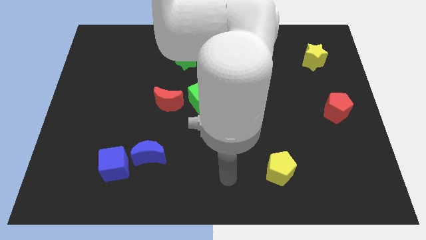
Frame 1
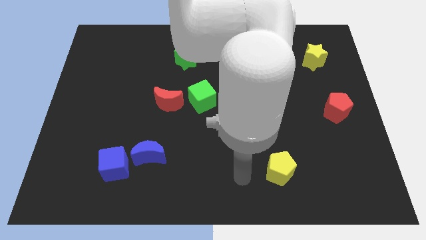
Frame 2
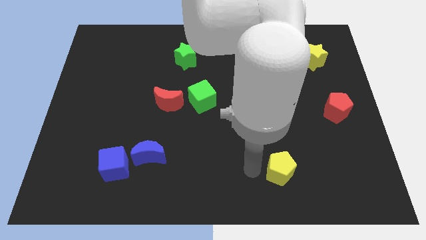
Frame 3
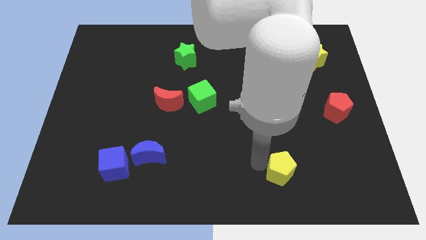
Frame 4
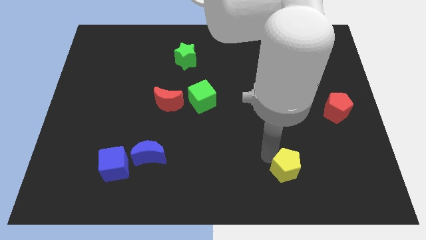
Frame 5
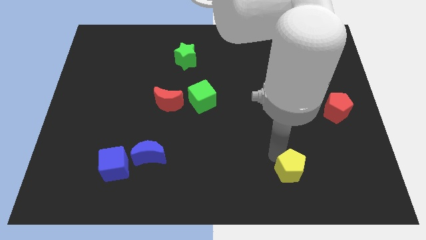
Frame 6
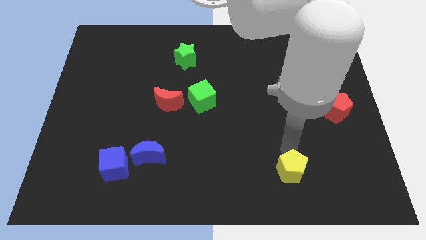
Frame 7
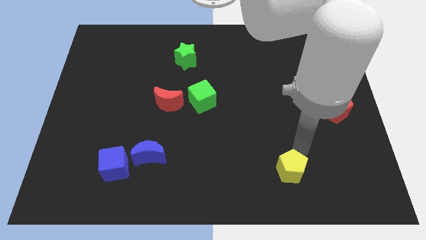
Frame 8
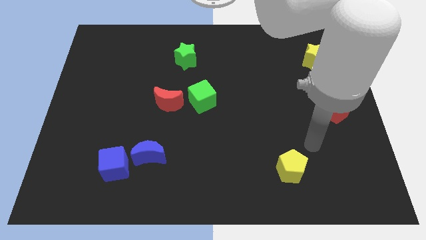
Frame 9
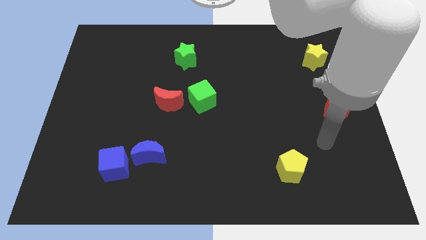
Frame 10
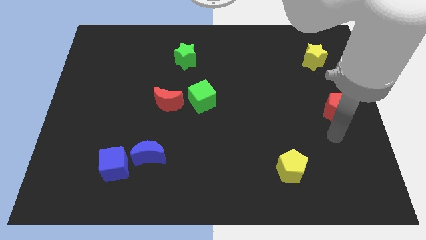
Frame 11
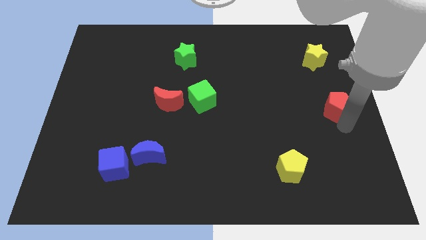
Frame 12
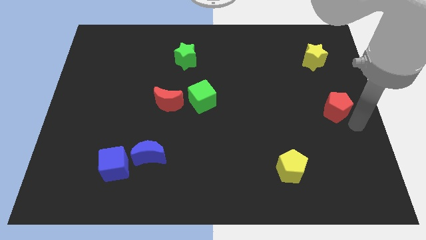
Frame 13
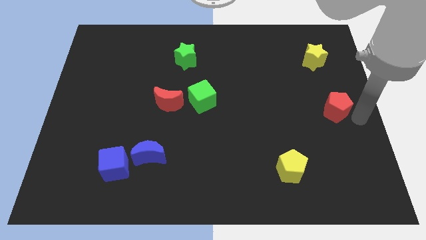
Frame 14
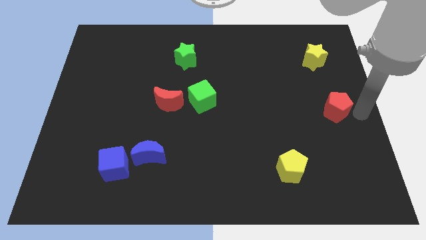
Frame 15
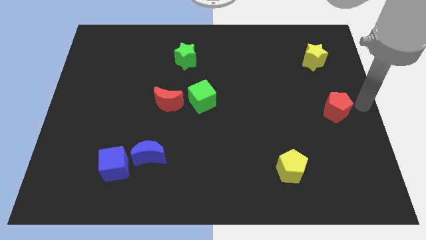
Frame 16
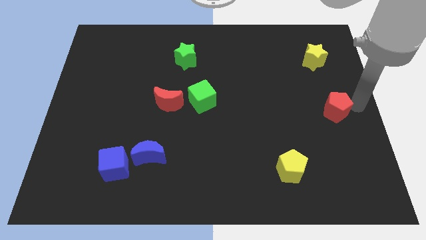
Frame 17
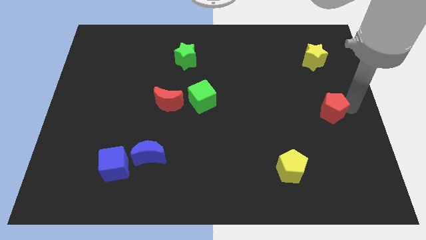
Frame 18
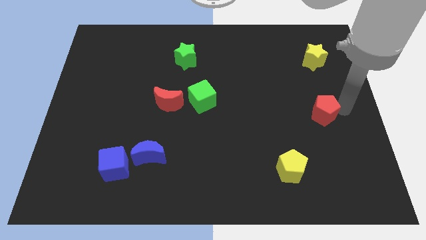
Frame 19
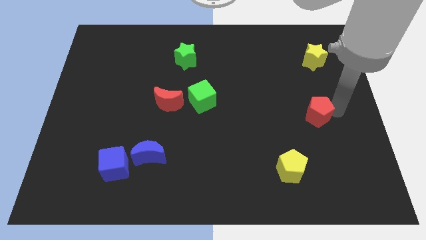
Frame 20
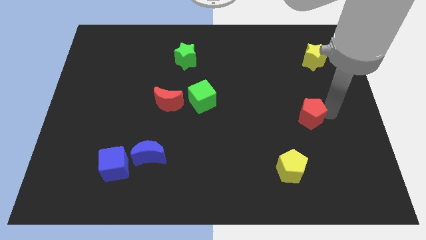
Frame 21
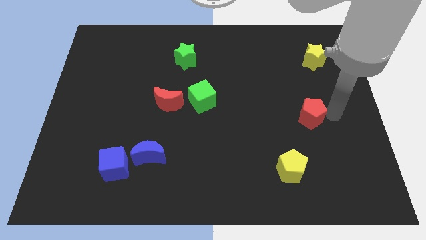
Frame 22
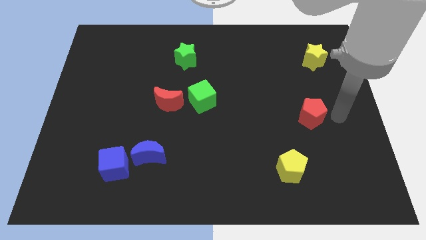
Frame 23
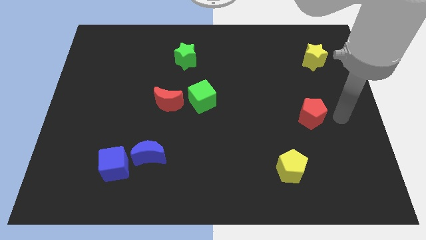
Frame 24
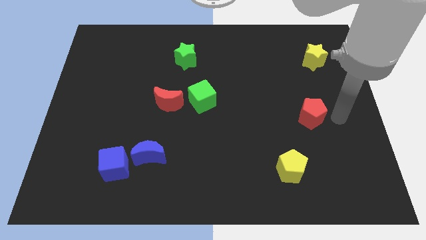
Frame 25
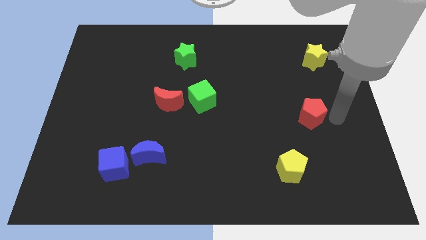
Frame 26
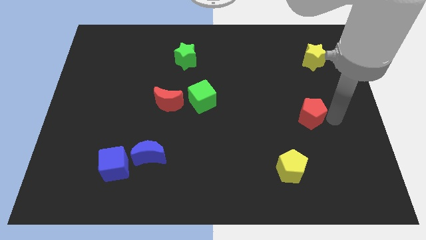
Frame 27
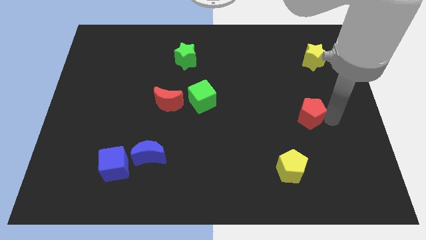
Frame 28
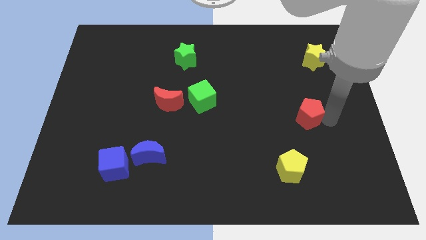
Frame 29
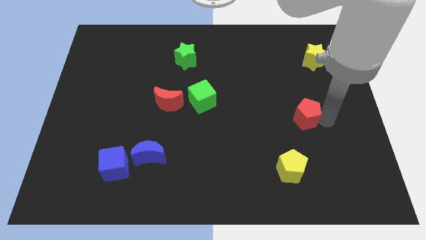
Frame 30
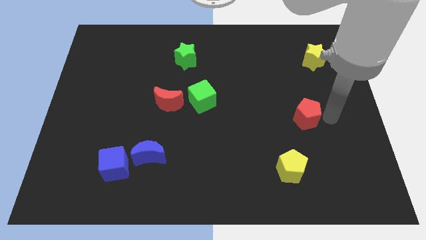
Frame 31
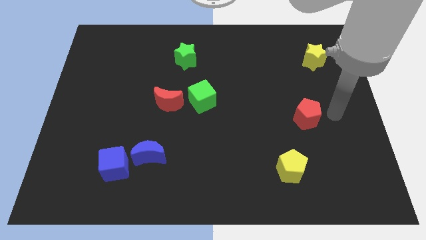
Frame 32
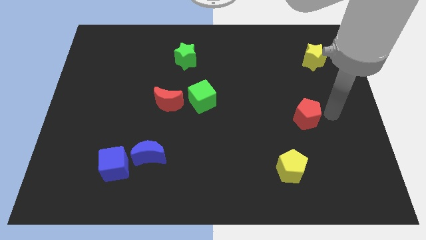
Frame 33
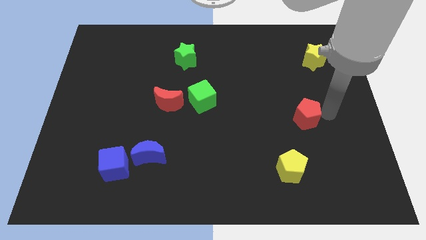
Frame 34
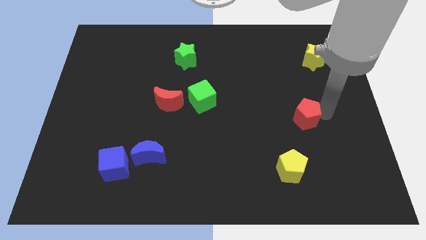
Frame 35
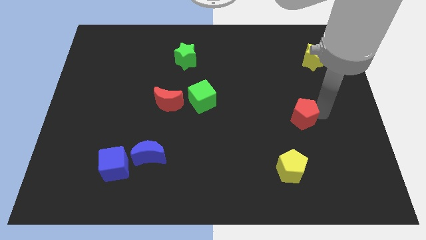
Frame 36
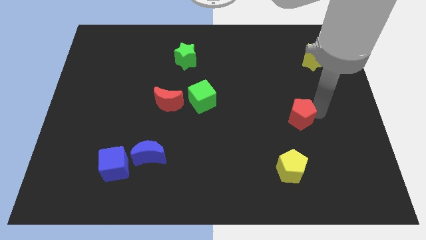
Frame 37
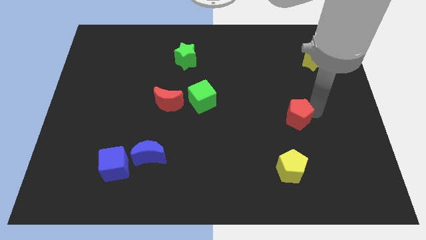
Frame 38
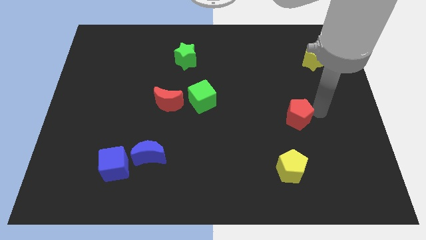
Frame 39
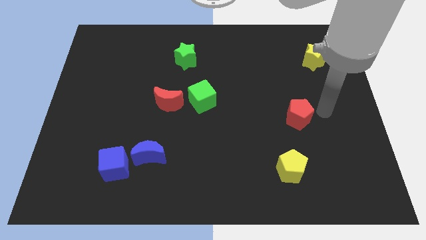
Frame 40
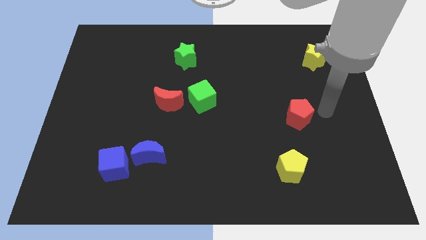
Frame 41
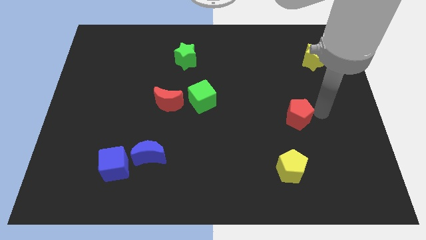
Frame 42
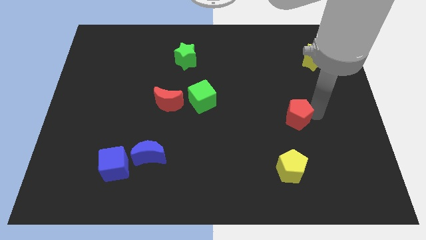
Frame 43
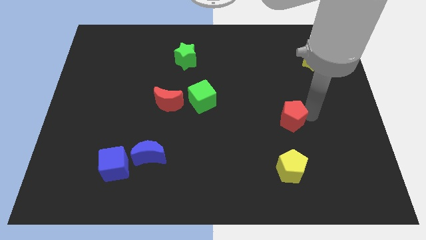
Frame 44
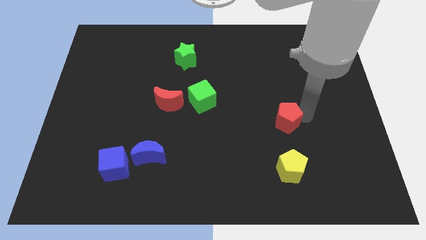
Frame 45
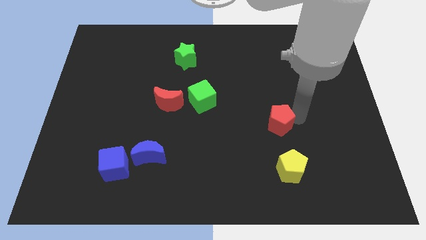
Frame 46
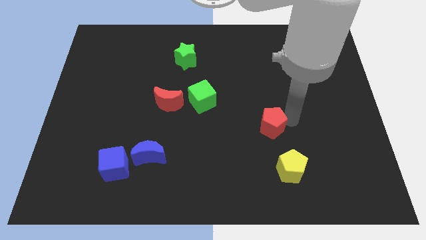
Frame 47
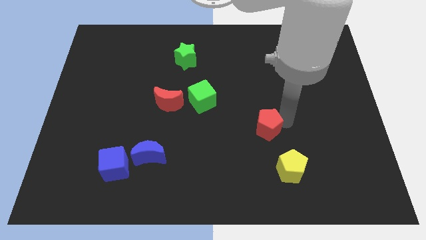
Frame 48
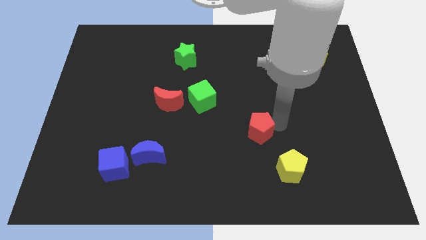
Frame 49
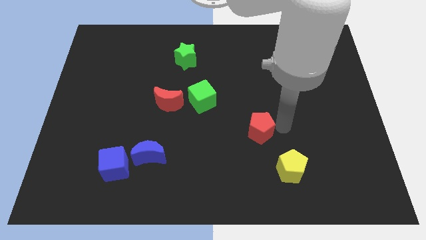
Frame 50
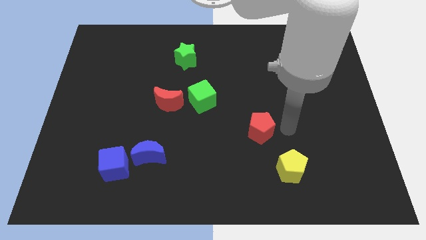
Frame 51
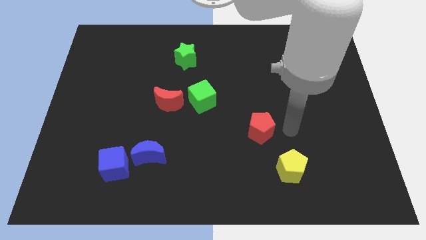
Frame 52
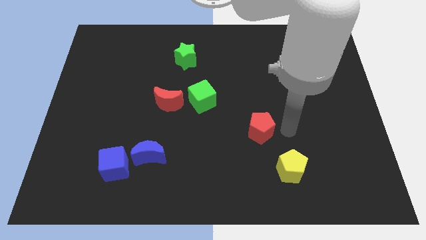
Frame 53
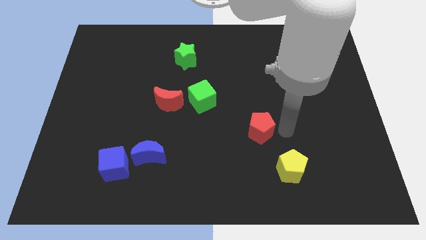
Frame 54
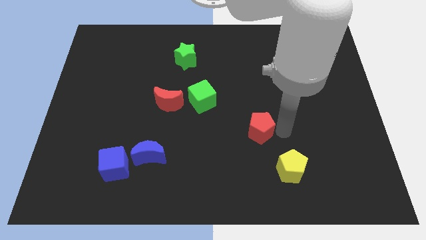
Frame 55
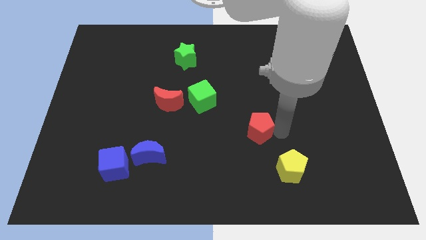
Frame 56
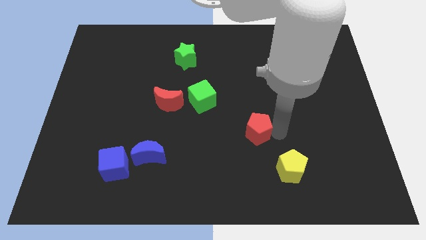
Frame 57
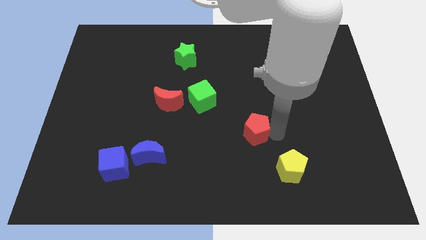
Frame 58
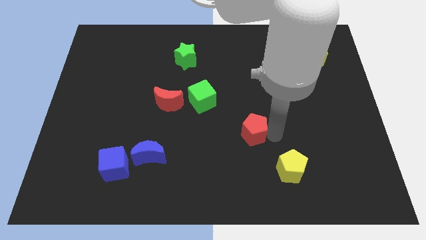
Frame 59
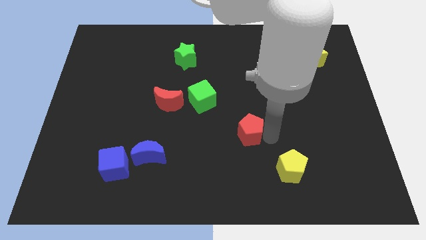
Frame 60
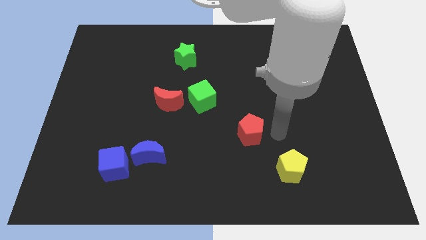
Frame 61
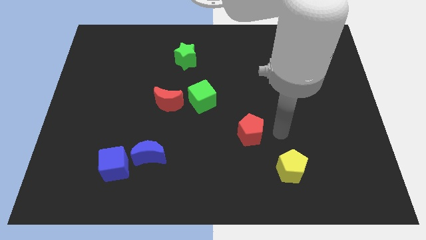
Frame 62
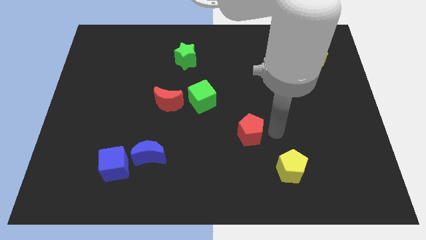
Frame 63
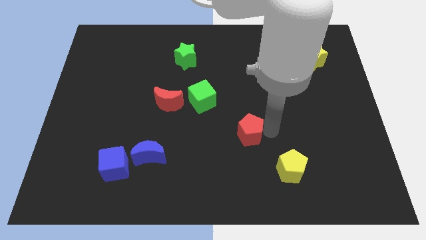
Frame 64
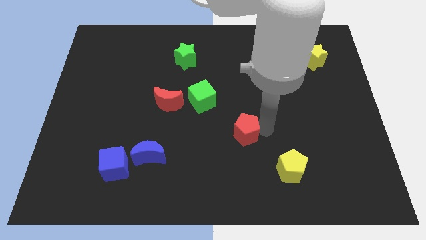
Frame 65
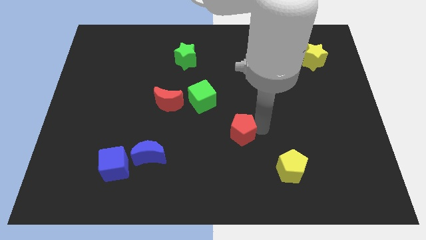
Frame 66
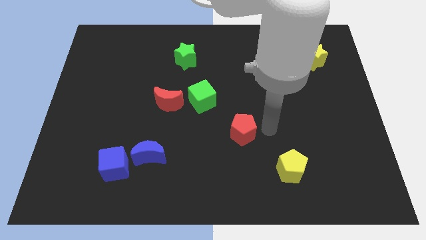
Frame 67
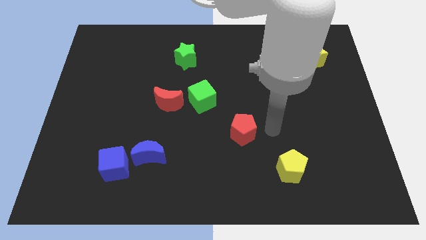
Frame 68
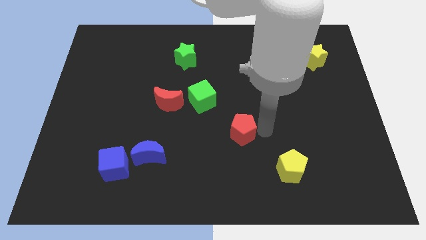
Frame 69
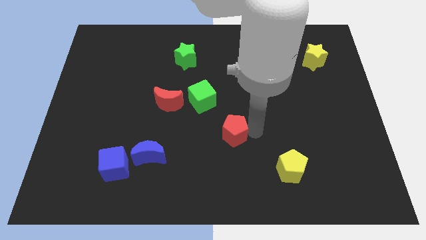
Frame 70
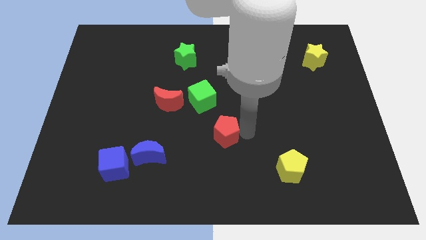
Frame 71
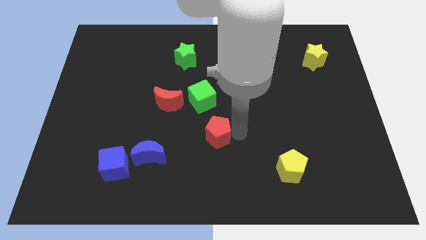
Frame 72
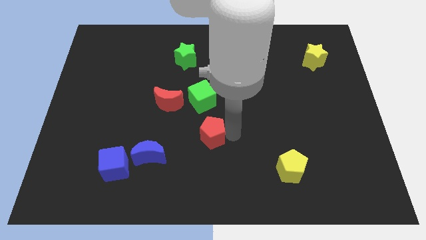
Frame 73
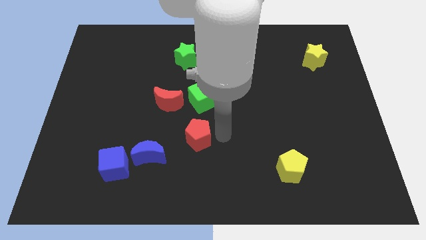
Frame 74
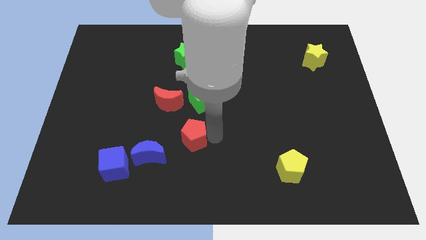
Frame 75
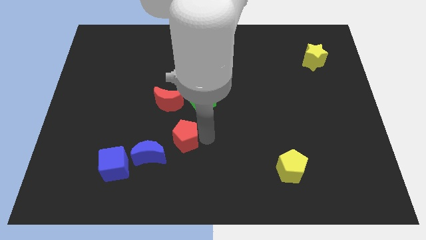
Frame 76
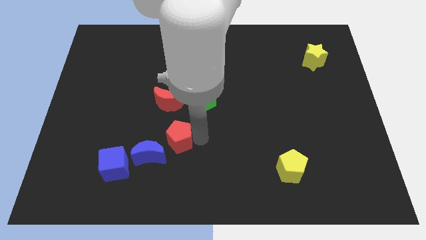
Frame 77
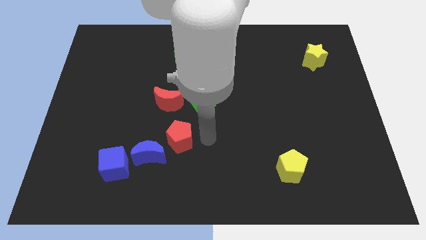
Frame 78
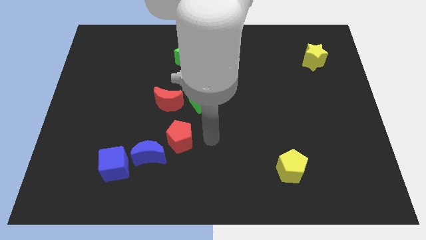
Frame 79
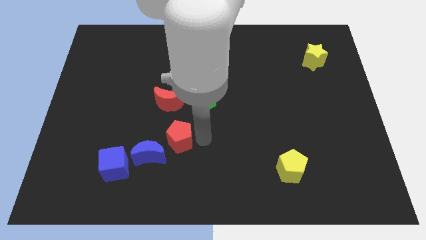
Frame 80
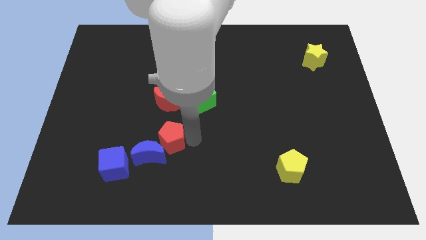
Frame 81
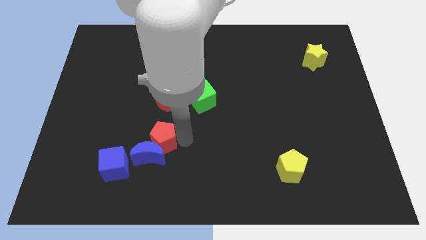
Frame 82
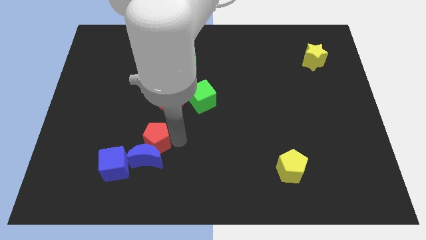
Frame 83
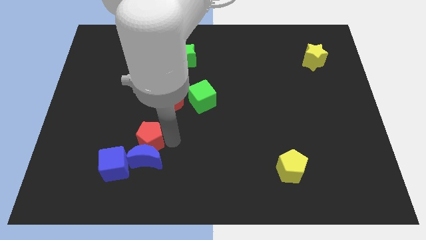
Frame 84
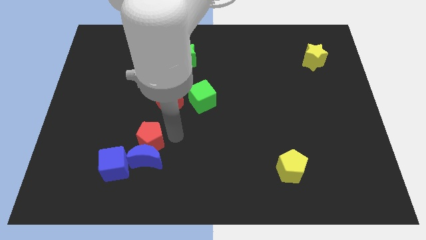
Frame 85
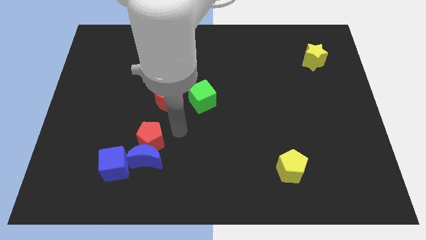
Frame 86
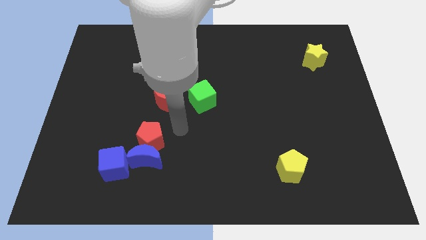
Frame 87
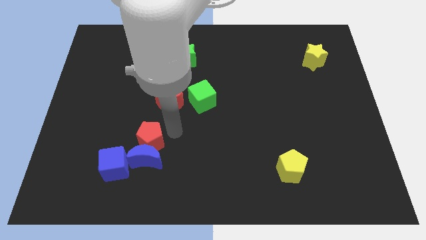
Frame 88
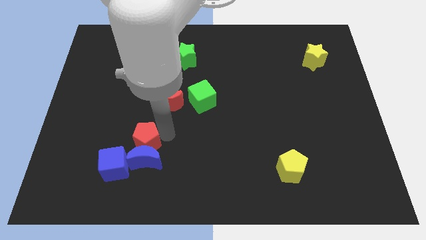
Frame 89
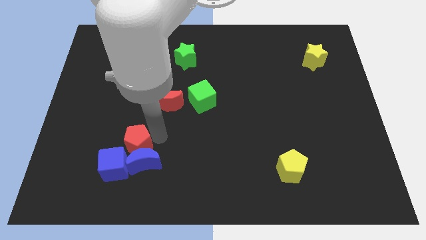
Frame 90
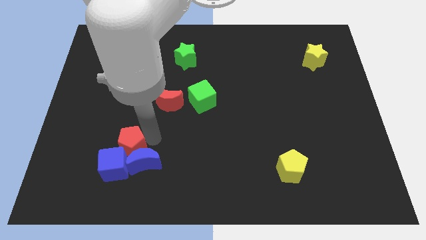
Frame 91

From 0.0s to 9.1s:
push the red pentagon next to the blue cube
